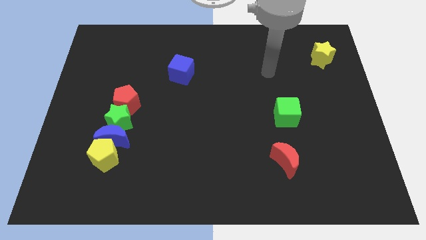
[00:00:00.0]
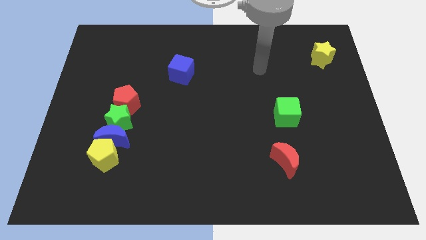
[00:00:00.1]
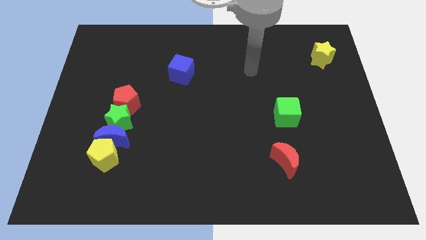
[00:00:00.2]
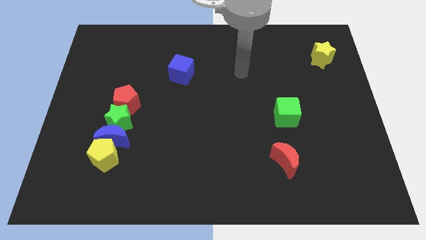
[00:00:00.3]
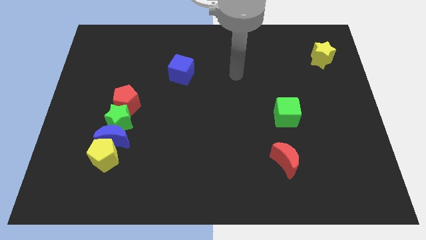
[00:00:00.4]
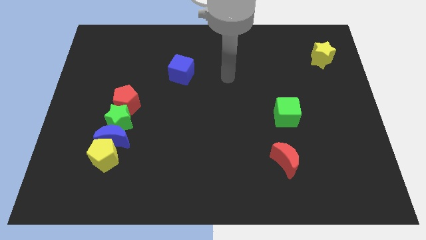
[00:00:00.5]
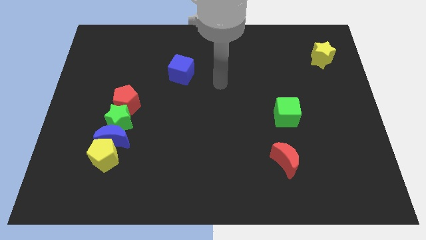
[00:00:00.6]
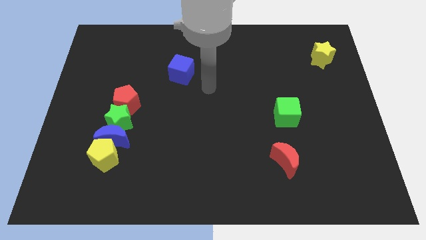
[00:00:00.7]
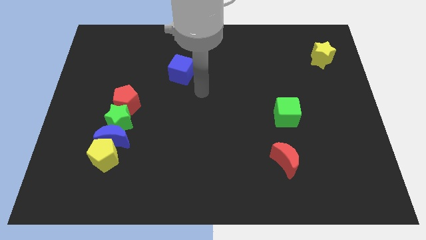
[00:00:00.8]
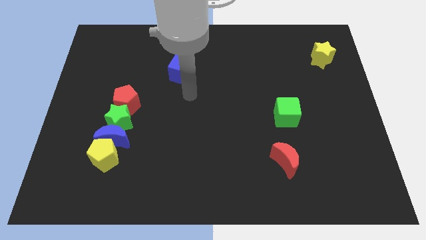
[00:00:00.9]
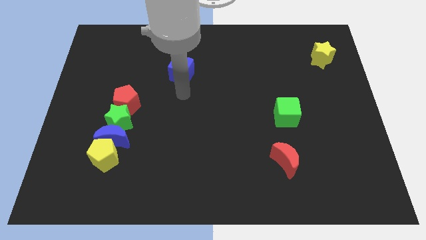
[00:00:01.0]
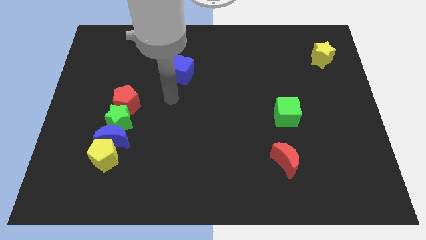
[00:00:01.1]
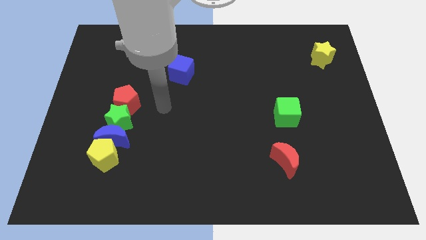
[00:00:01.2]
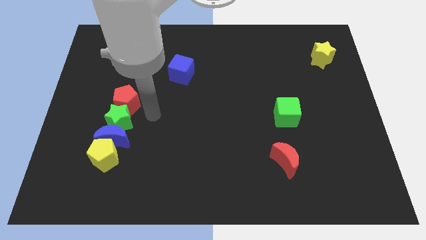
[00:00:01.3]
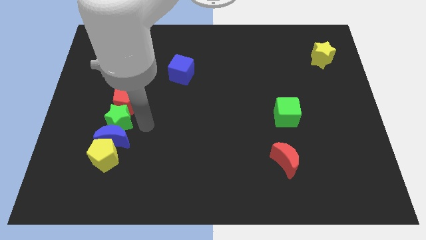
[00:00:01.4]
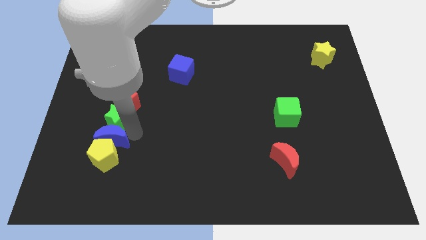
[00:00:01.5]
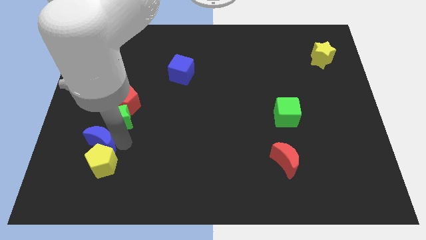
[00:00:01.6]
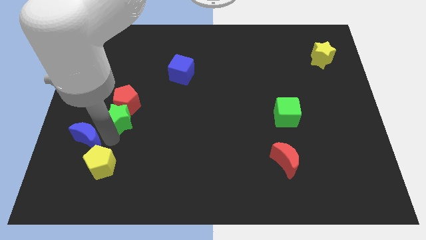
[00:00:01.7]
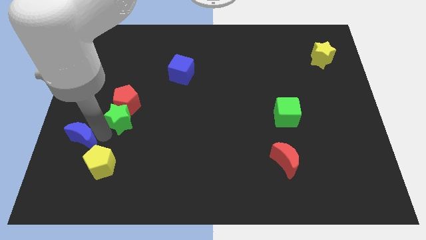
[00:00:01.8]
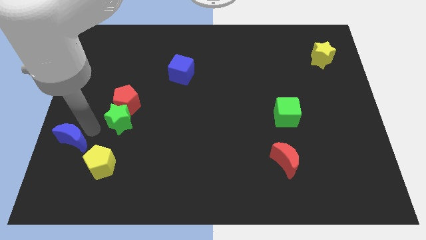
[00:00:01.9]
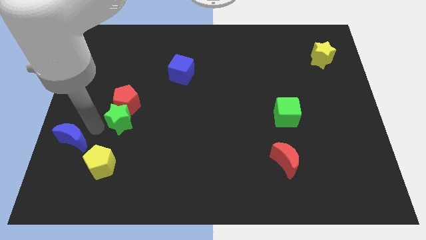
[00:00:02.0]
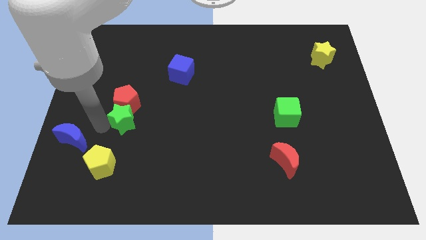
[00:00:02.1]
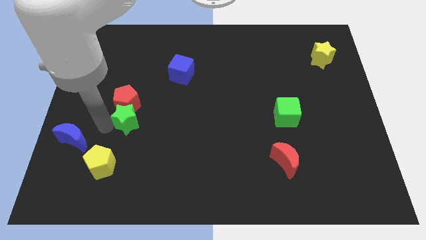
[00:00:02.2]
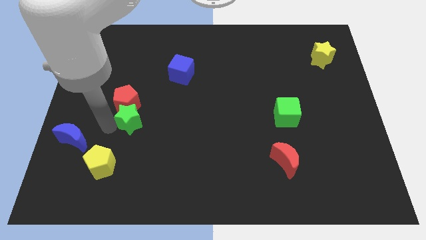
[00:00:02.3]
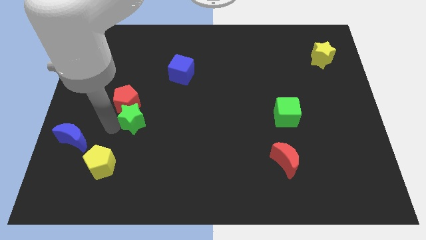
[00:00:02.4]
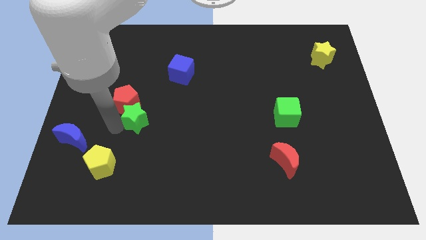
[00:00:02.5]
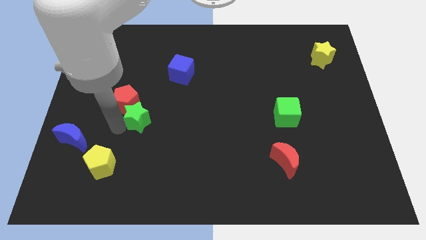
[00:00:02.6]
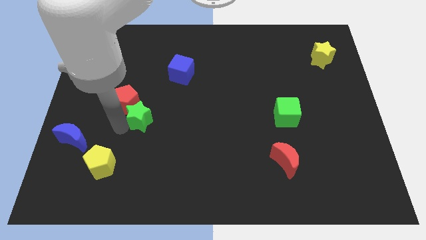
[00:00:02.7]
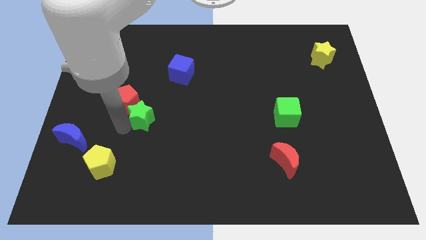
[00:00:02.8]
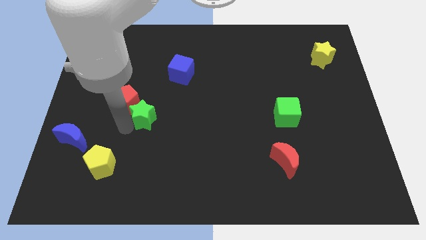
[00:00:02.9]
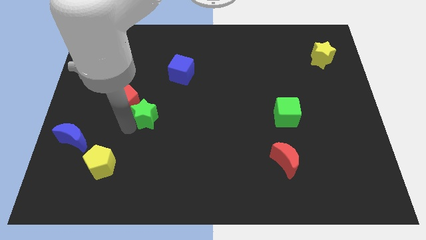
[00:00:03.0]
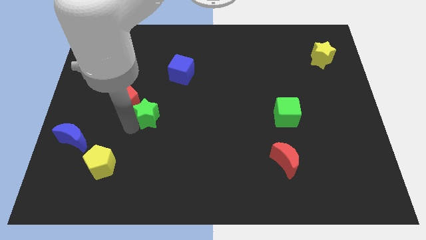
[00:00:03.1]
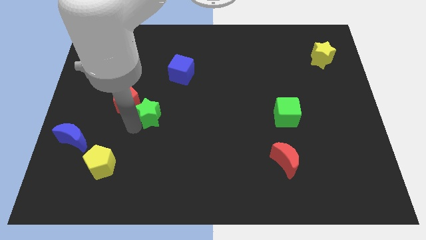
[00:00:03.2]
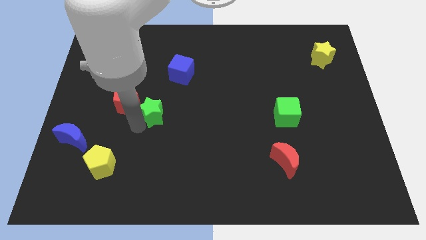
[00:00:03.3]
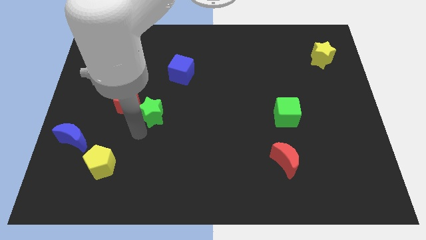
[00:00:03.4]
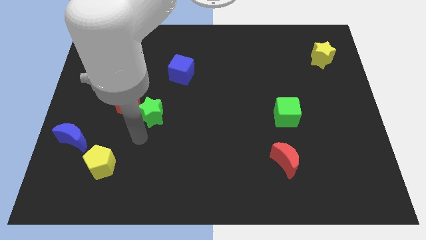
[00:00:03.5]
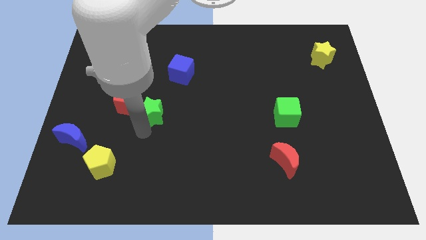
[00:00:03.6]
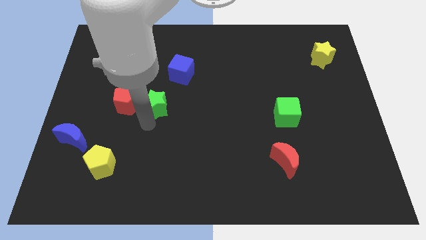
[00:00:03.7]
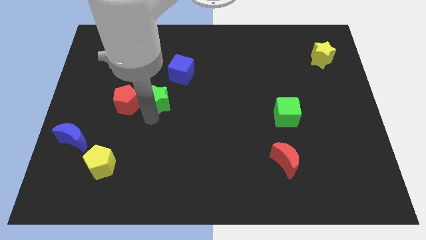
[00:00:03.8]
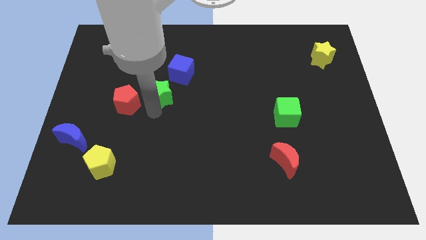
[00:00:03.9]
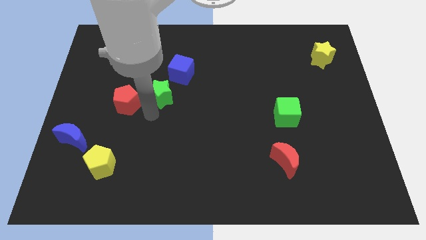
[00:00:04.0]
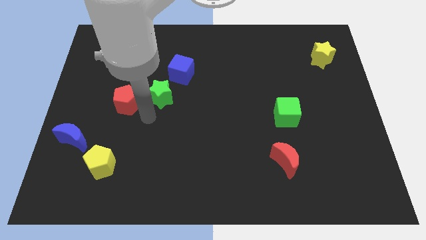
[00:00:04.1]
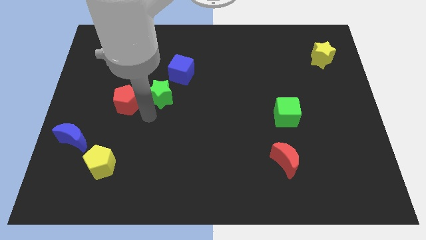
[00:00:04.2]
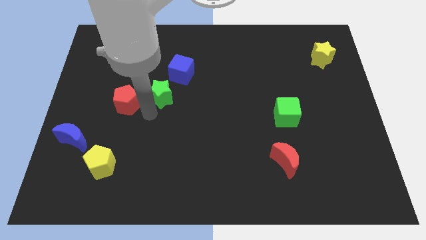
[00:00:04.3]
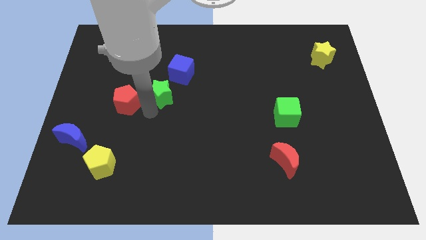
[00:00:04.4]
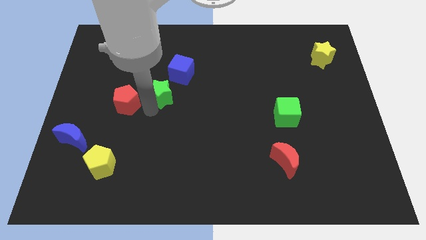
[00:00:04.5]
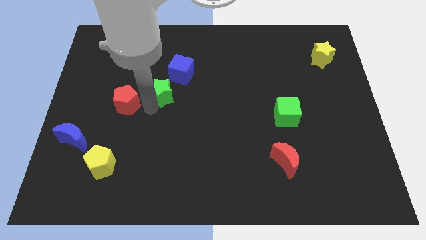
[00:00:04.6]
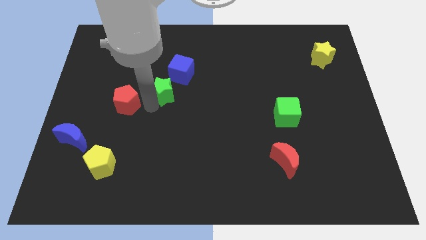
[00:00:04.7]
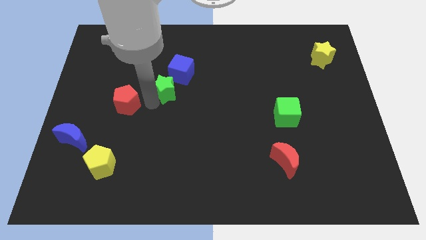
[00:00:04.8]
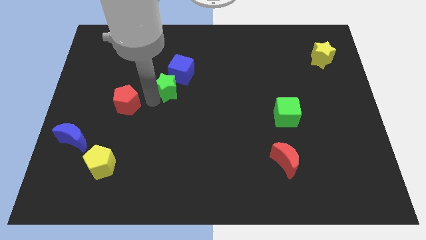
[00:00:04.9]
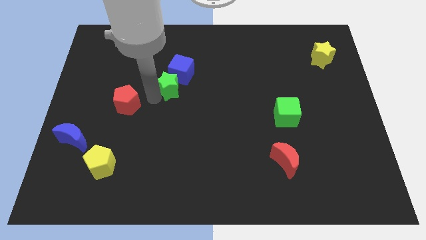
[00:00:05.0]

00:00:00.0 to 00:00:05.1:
move the green star to the blue cube

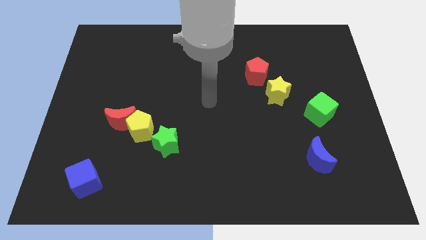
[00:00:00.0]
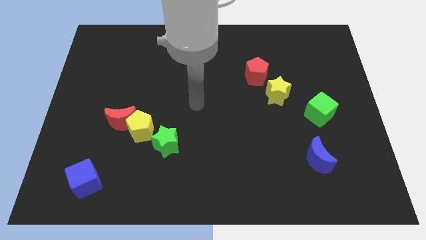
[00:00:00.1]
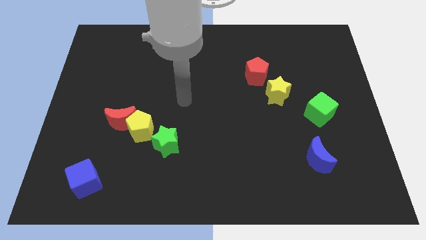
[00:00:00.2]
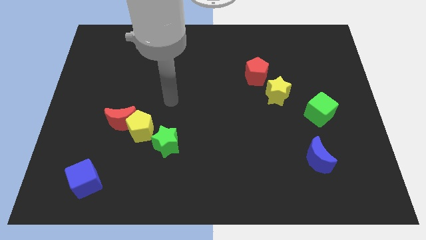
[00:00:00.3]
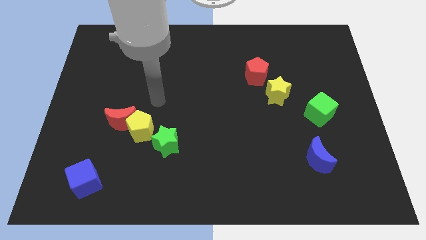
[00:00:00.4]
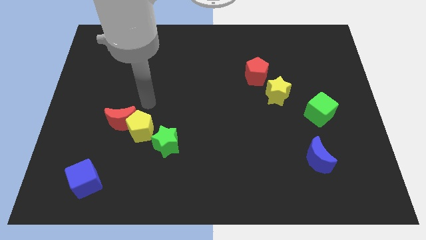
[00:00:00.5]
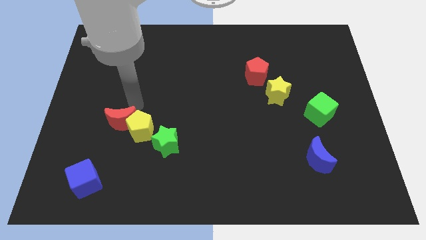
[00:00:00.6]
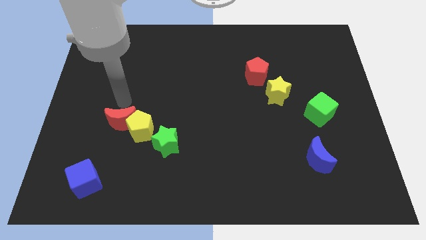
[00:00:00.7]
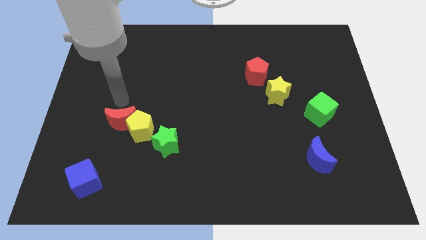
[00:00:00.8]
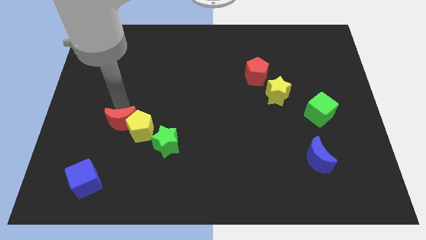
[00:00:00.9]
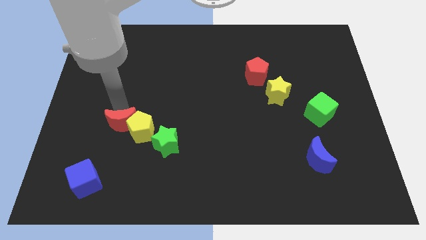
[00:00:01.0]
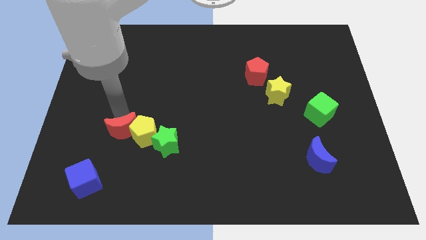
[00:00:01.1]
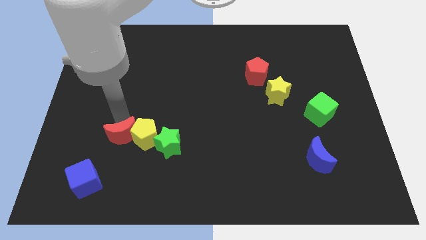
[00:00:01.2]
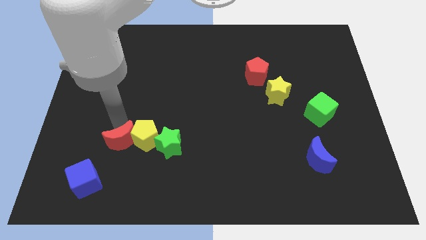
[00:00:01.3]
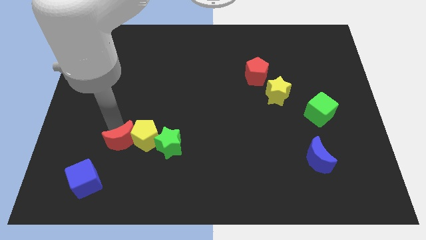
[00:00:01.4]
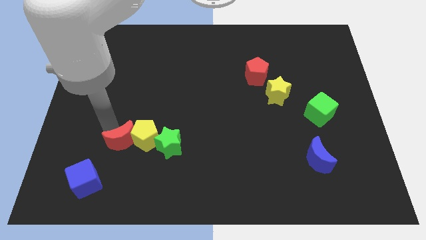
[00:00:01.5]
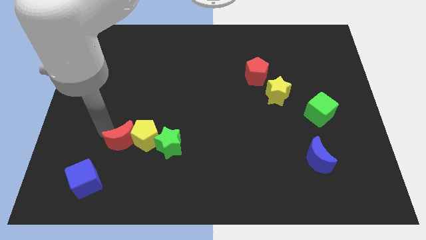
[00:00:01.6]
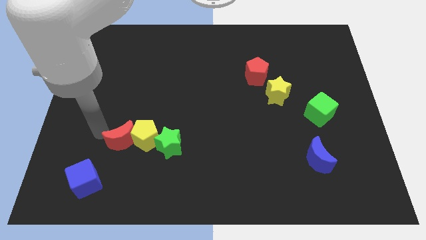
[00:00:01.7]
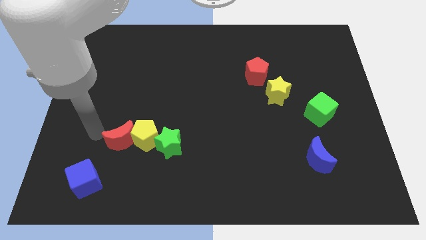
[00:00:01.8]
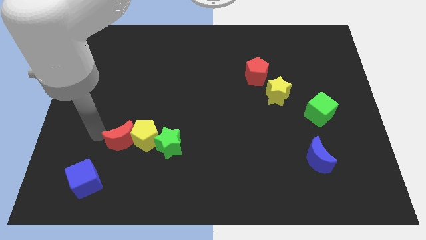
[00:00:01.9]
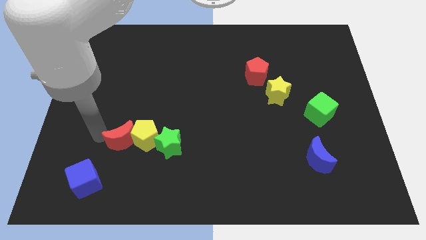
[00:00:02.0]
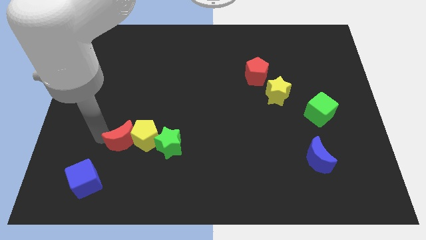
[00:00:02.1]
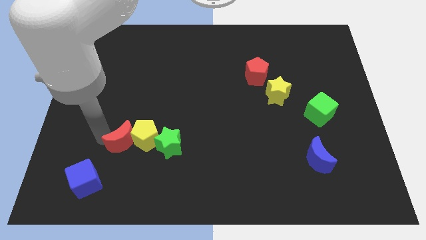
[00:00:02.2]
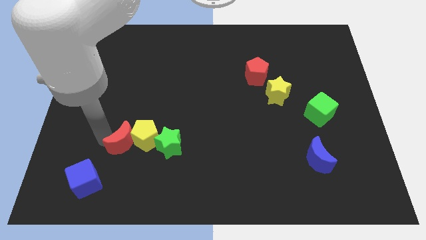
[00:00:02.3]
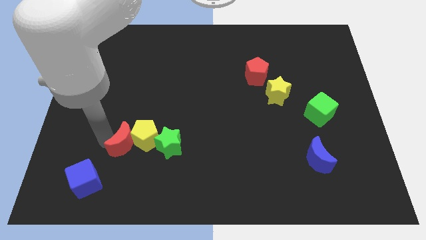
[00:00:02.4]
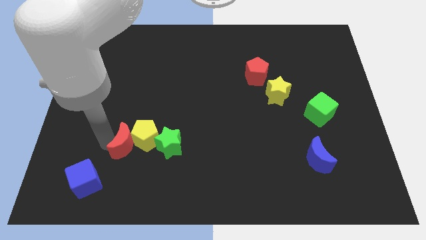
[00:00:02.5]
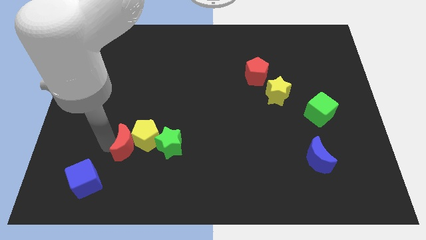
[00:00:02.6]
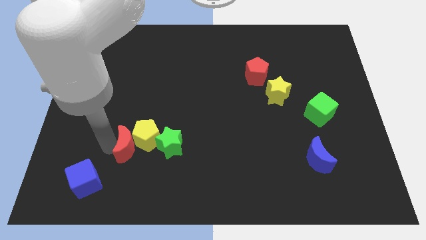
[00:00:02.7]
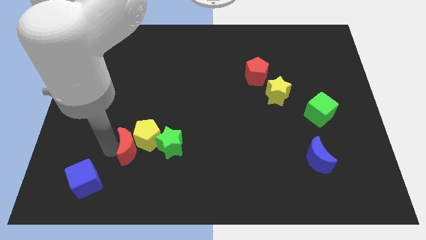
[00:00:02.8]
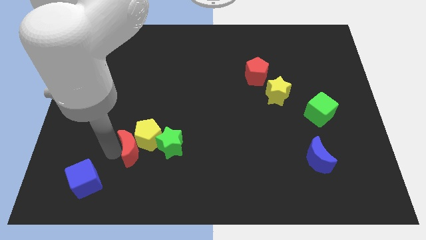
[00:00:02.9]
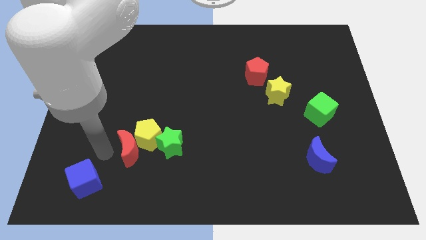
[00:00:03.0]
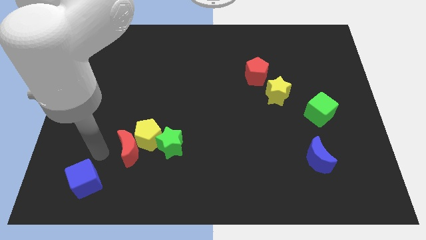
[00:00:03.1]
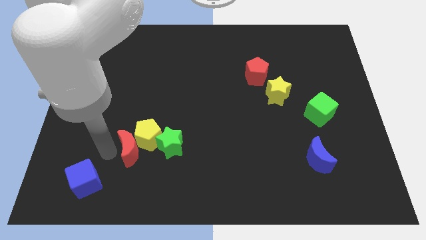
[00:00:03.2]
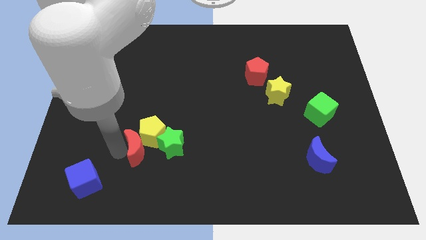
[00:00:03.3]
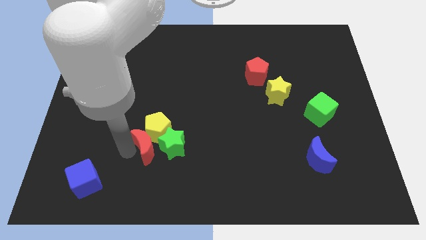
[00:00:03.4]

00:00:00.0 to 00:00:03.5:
move the red moon close to the green star
